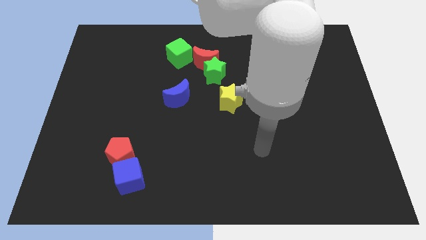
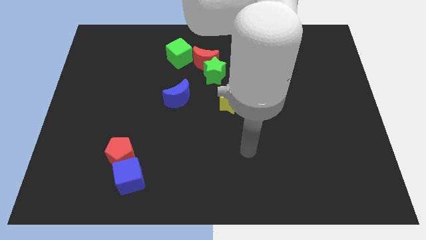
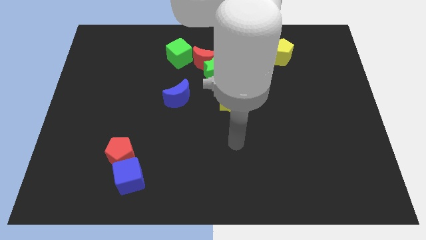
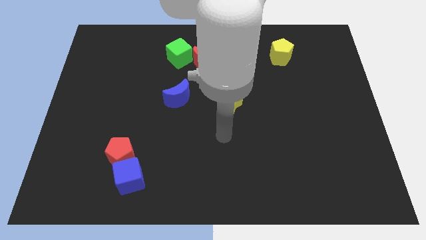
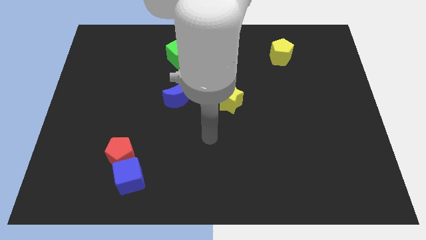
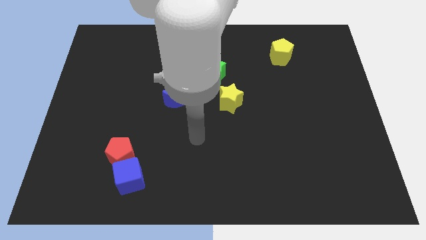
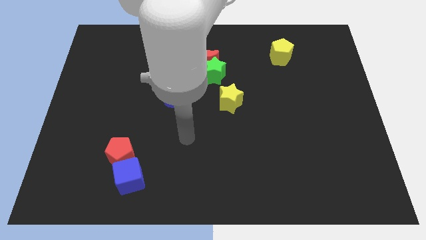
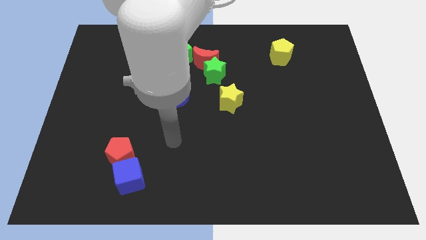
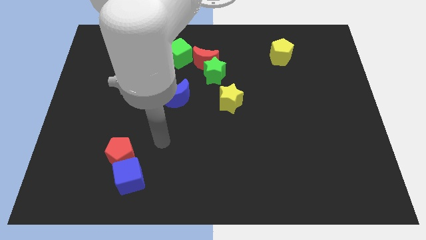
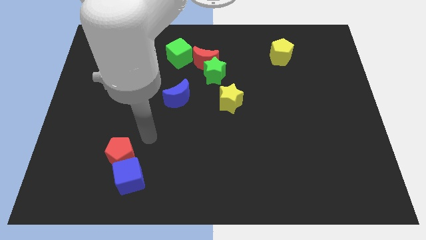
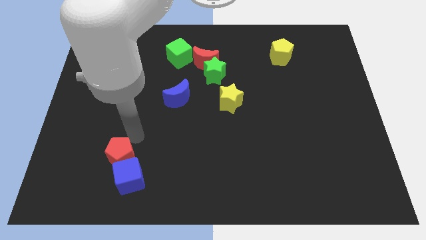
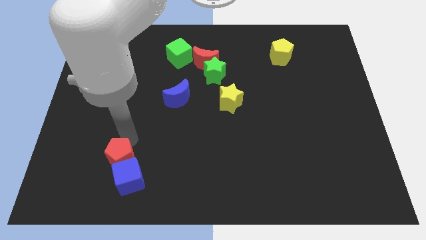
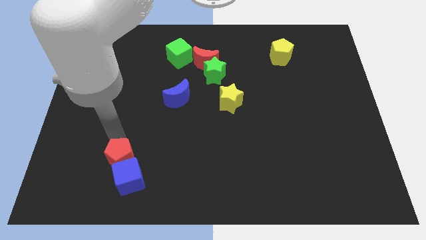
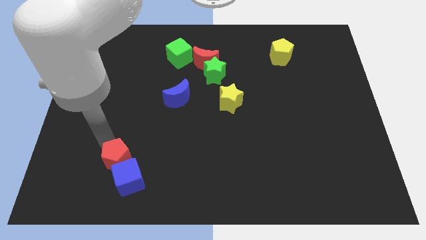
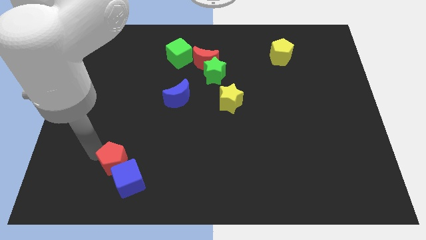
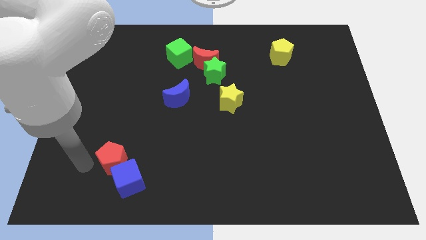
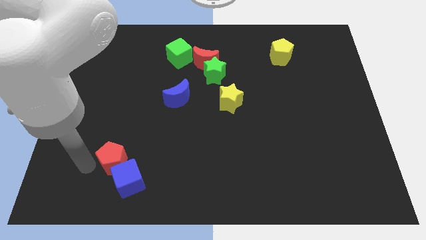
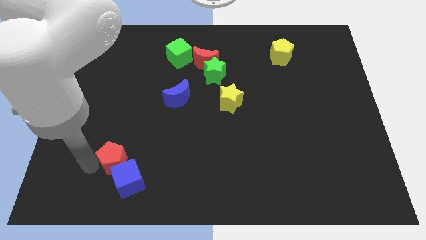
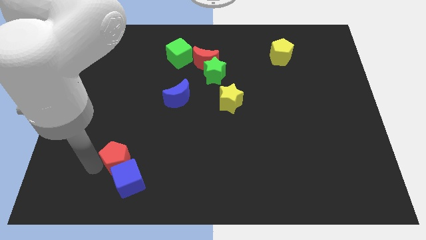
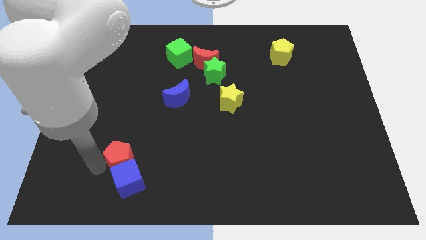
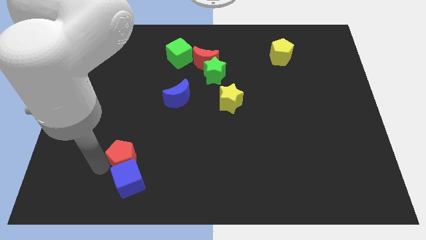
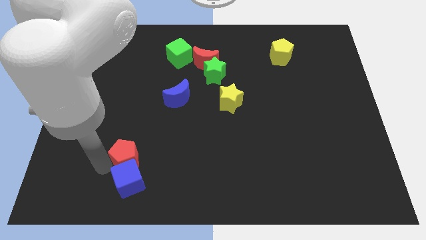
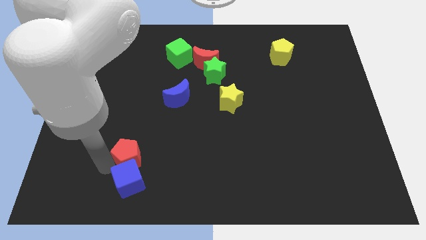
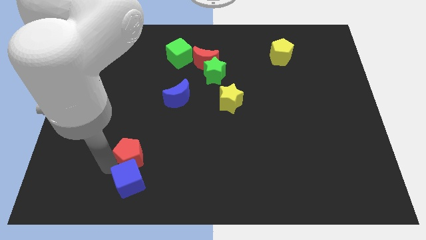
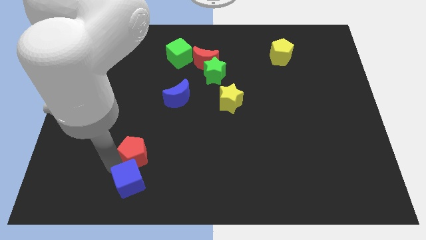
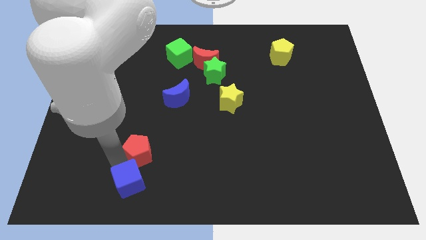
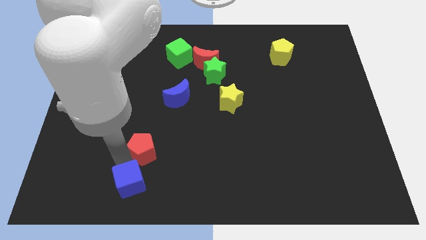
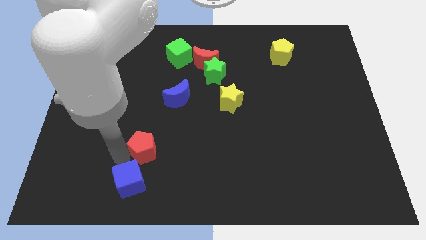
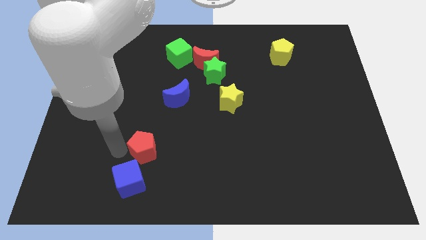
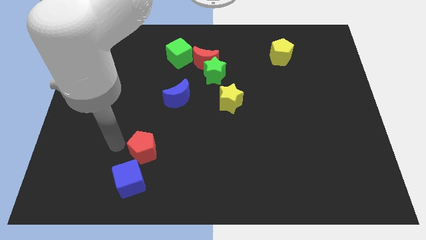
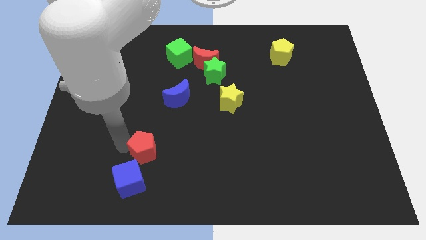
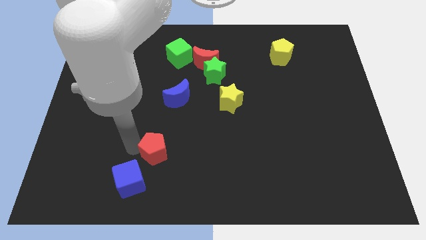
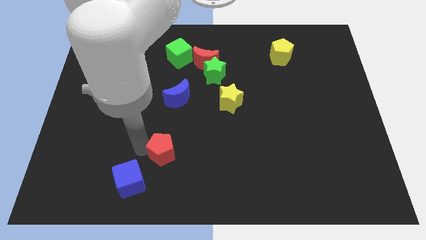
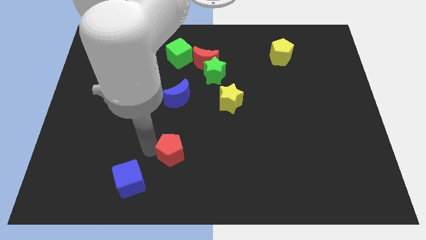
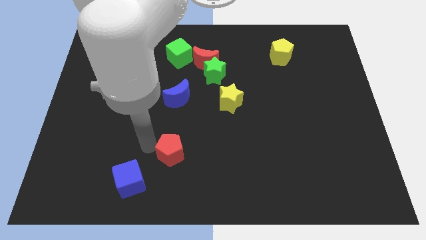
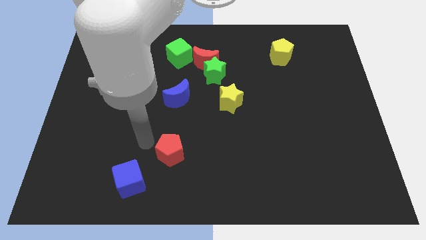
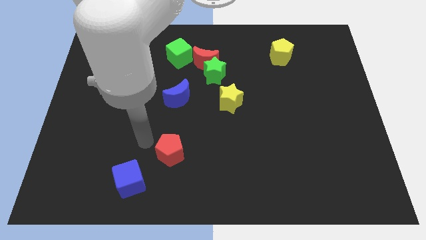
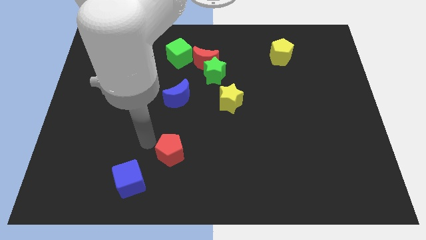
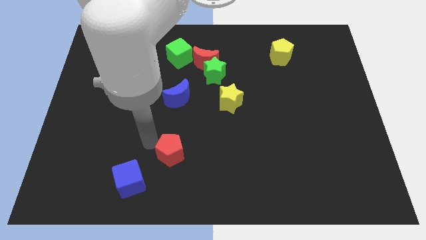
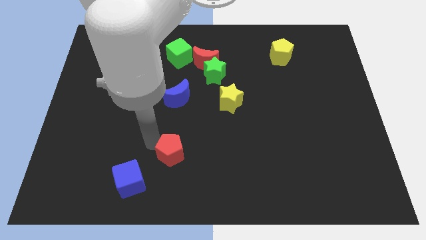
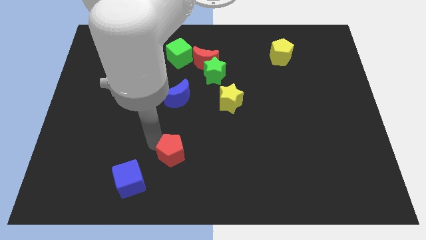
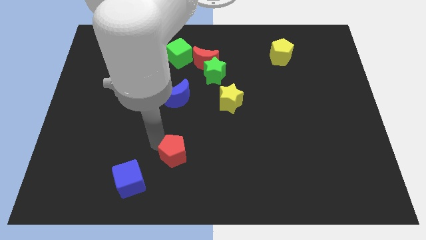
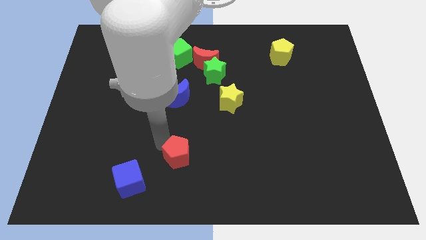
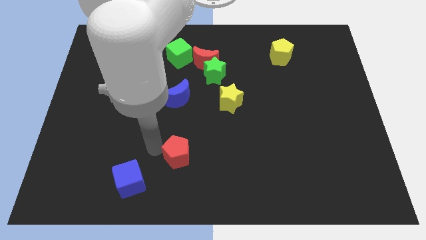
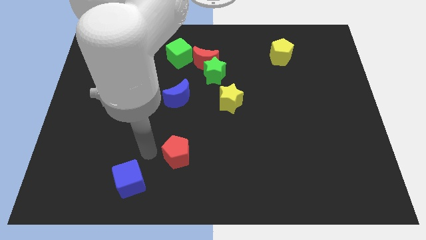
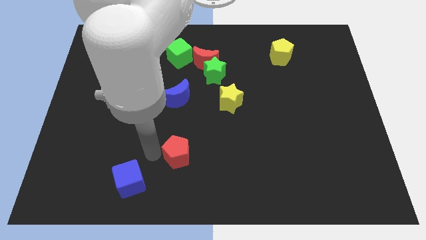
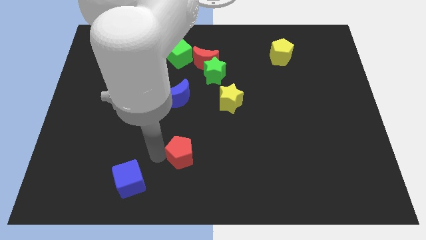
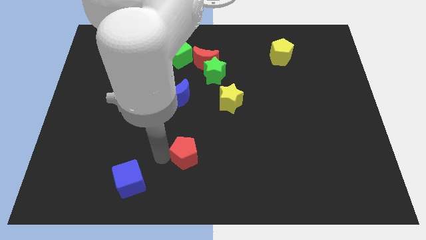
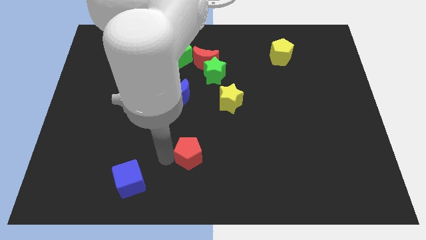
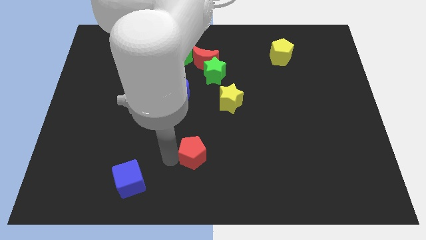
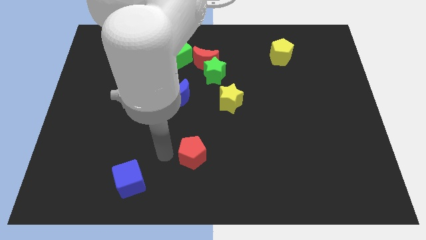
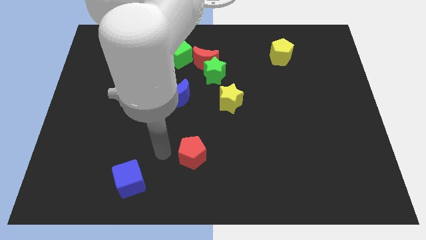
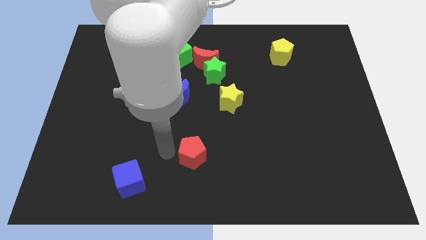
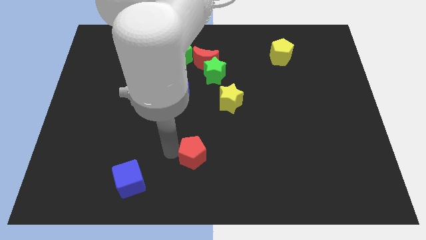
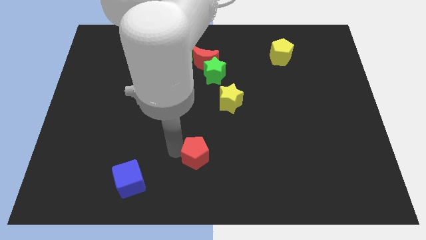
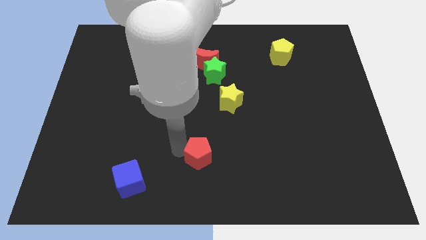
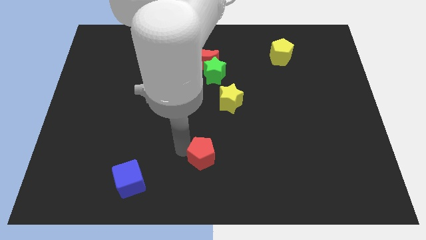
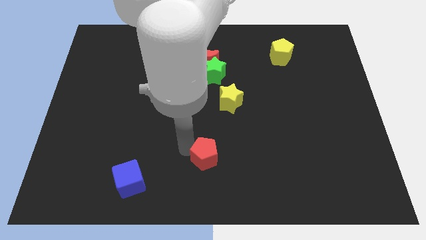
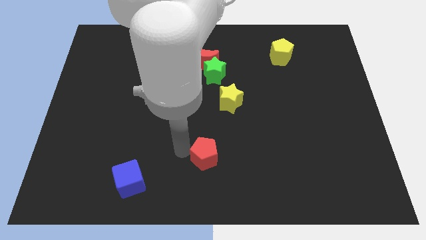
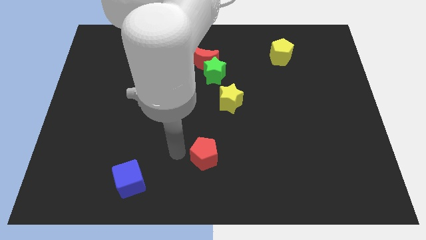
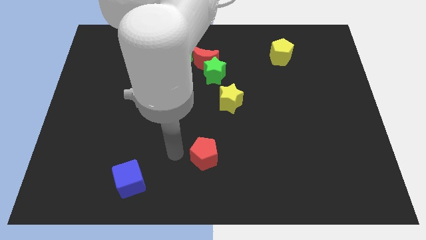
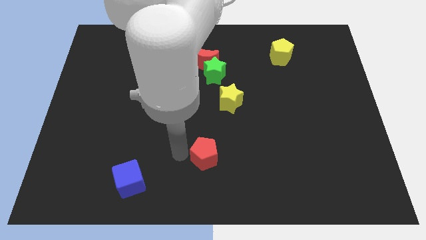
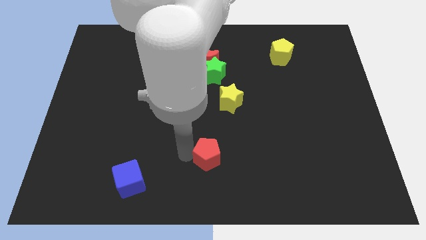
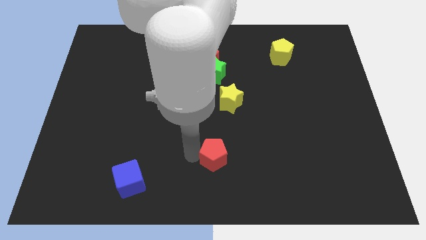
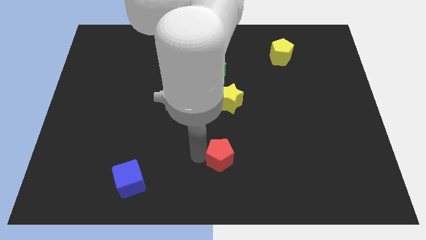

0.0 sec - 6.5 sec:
slide the red pentagon right

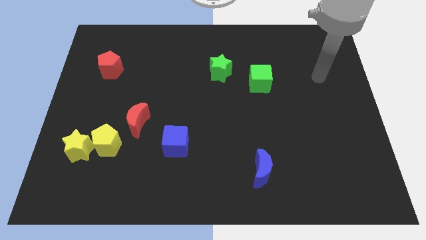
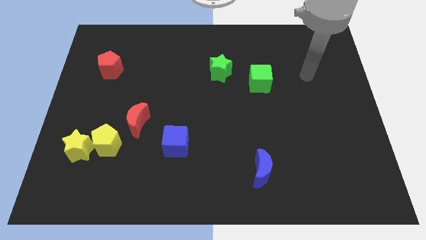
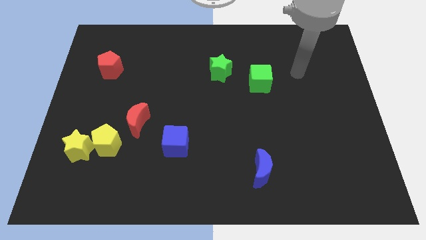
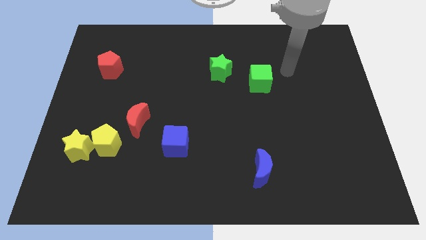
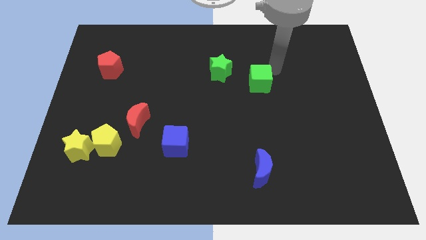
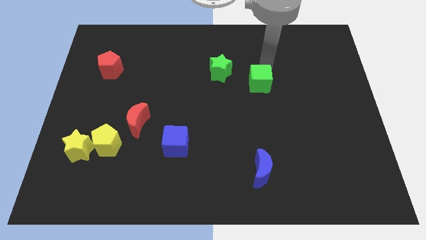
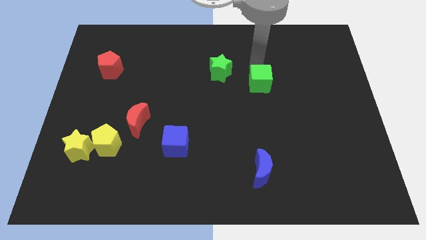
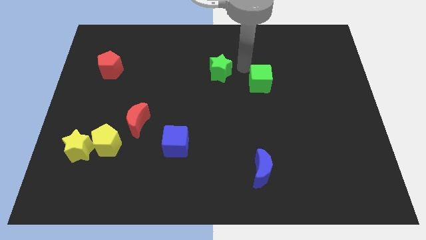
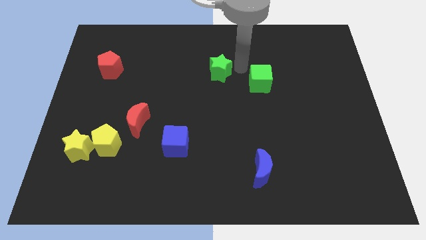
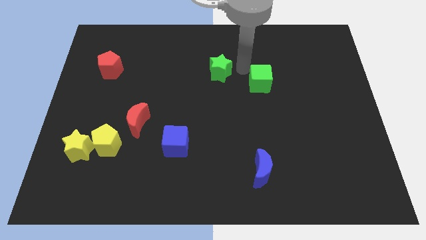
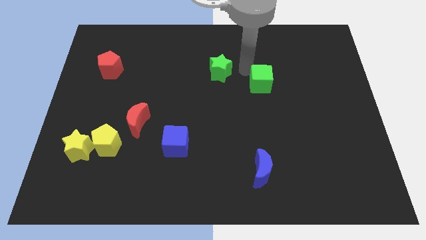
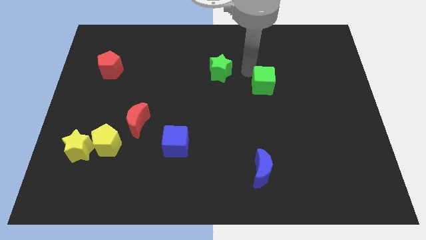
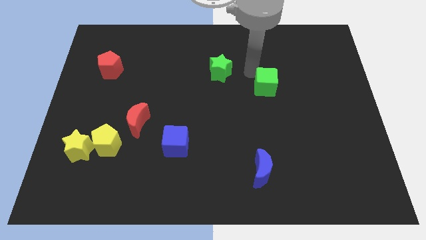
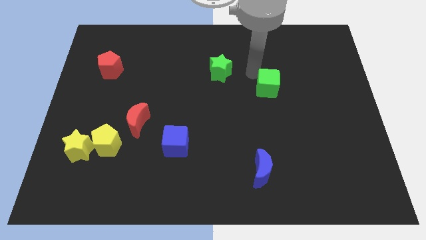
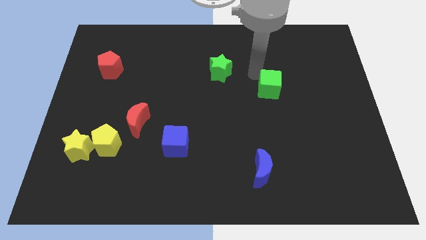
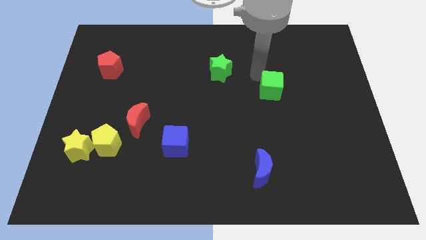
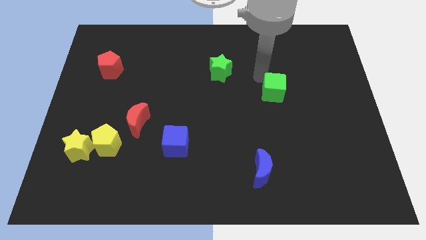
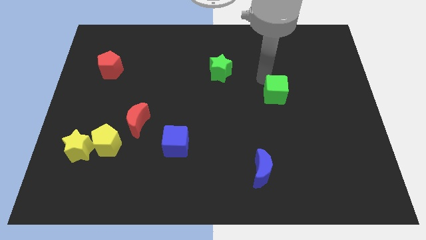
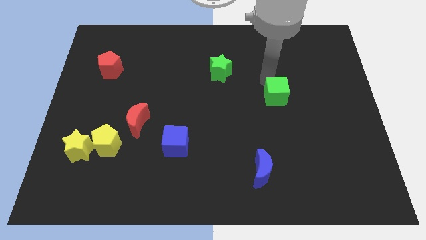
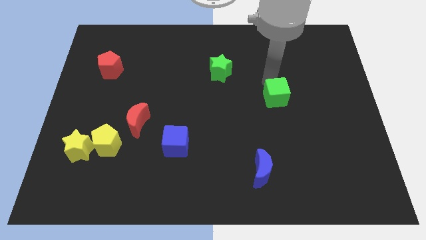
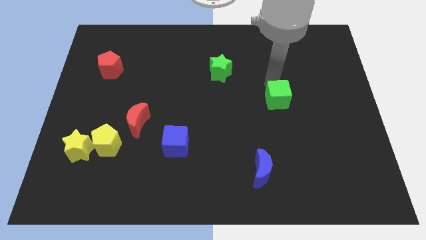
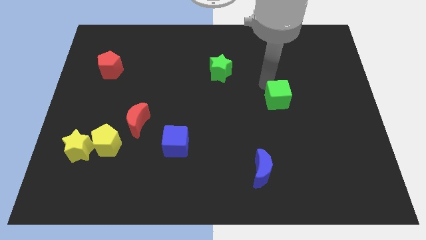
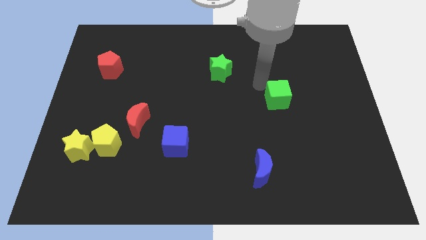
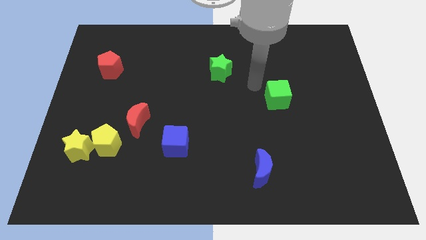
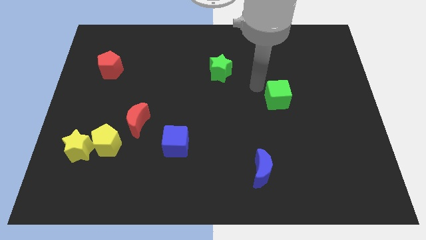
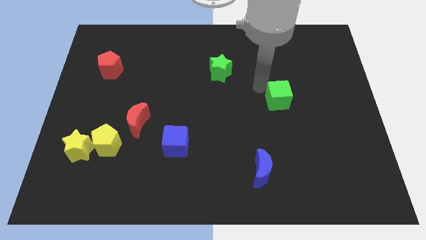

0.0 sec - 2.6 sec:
slide the green cube down and right slightly
